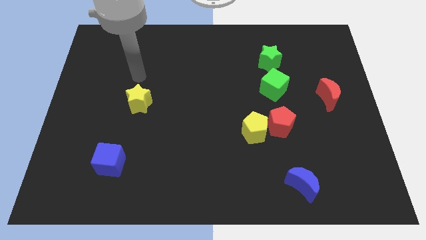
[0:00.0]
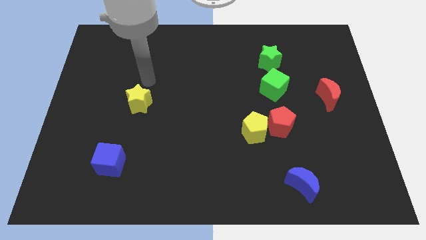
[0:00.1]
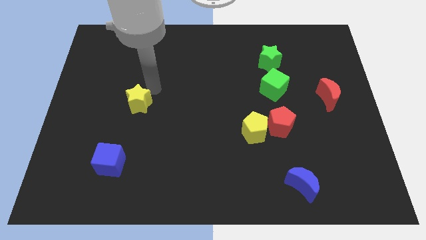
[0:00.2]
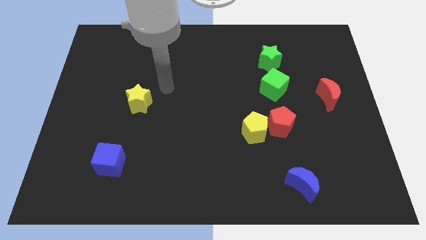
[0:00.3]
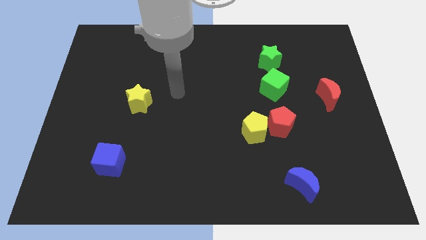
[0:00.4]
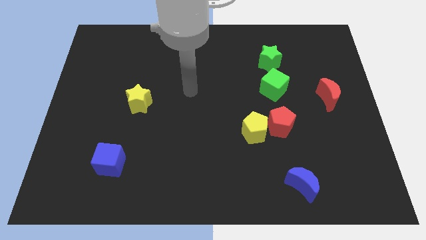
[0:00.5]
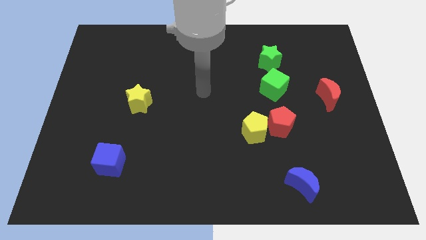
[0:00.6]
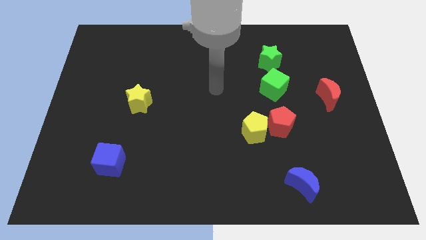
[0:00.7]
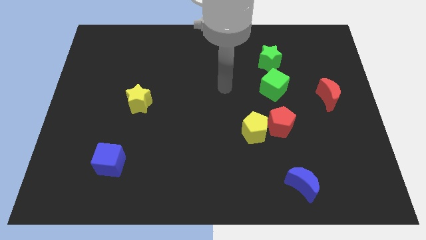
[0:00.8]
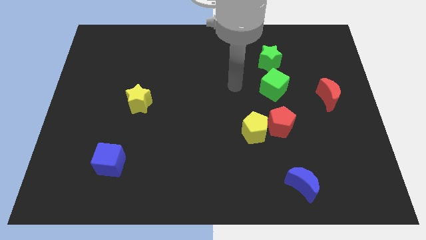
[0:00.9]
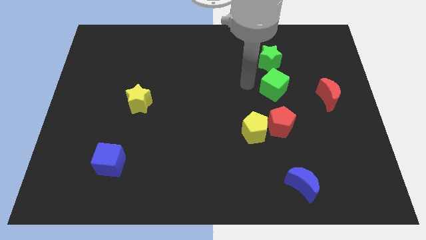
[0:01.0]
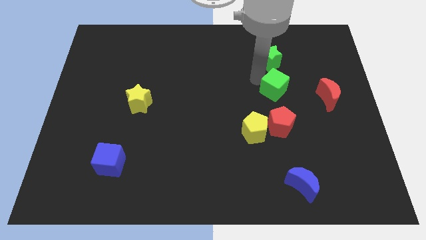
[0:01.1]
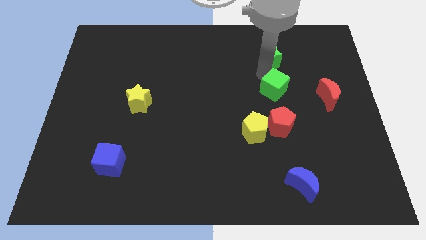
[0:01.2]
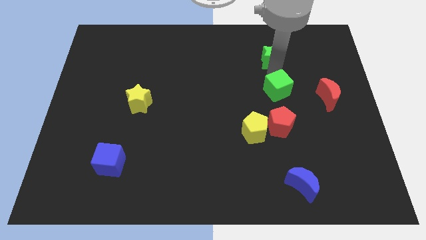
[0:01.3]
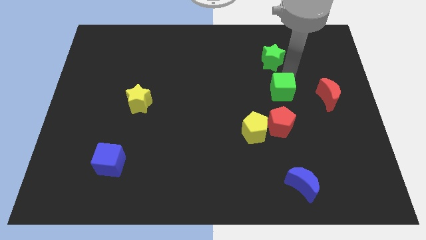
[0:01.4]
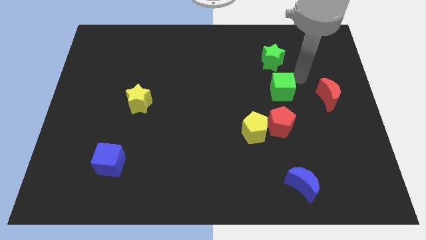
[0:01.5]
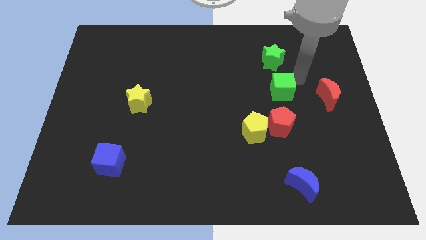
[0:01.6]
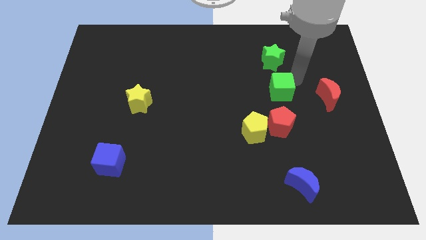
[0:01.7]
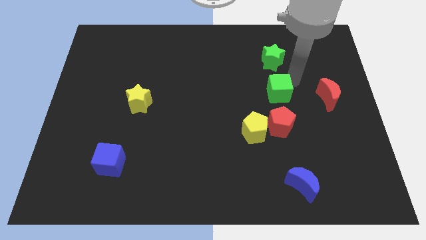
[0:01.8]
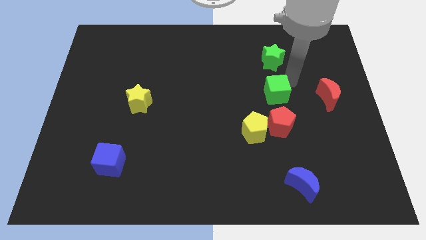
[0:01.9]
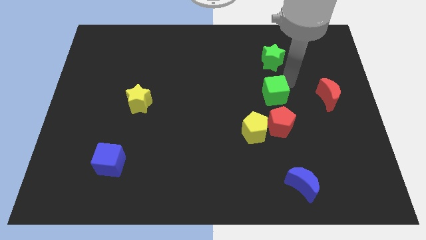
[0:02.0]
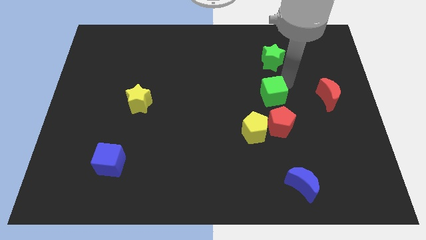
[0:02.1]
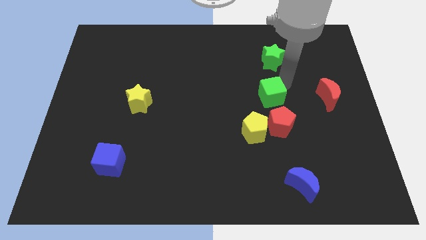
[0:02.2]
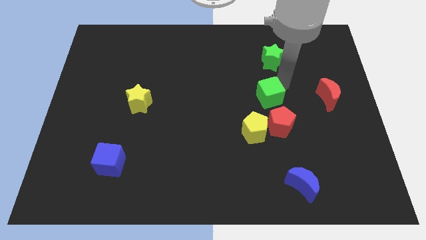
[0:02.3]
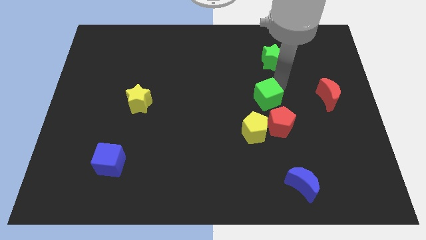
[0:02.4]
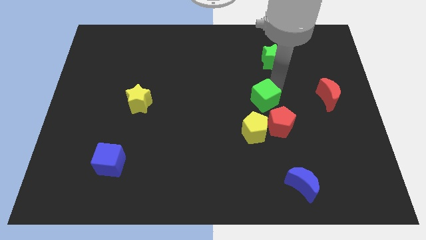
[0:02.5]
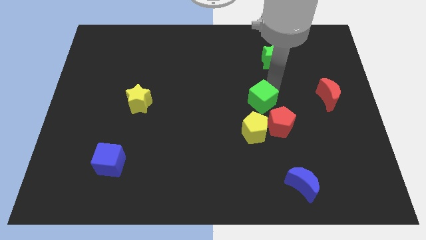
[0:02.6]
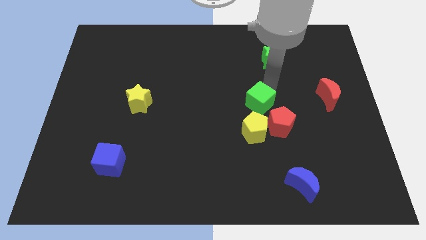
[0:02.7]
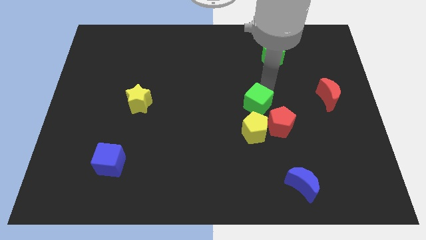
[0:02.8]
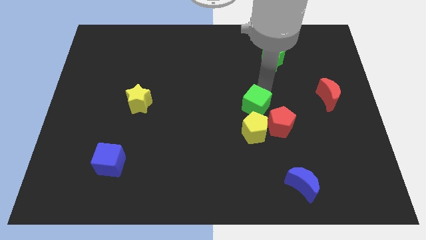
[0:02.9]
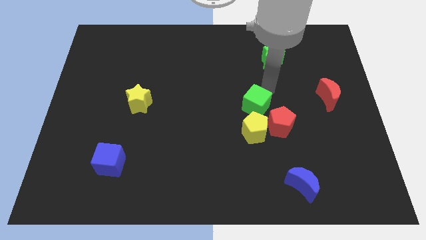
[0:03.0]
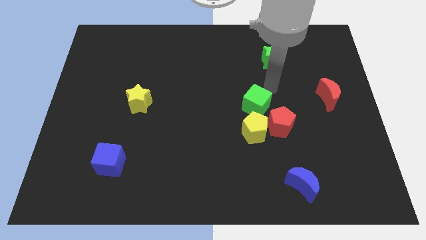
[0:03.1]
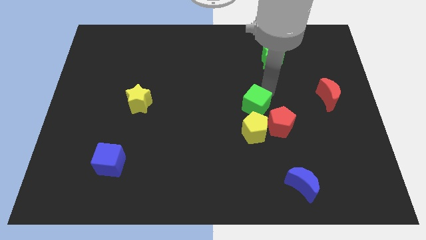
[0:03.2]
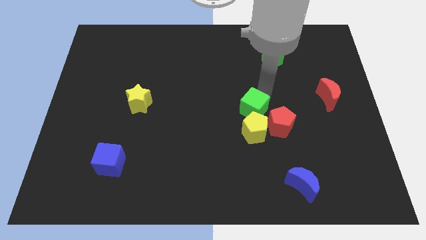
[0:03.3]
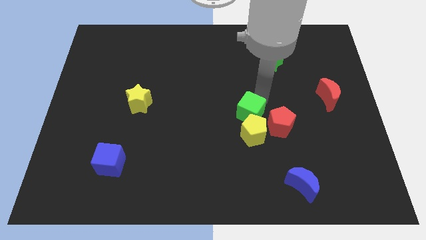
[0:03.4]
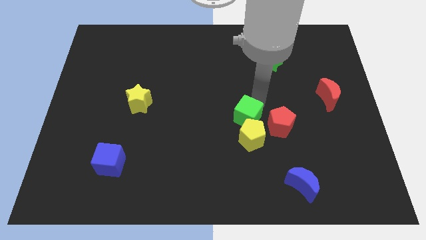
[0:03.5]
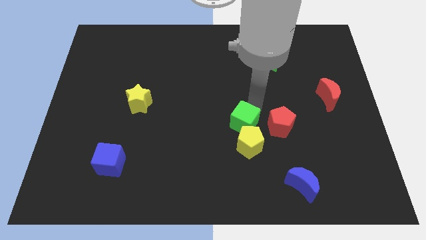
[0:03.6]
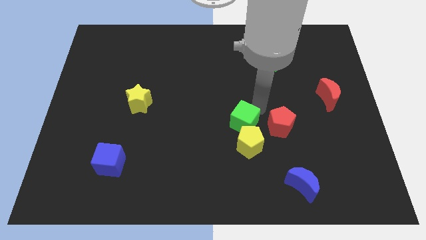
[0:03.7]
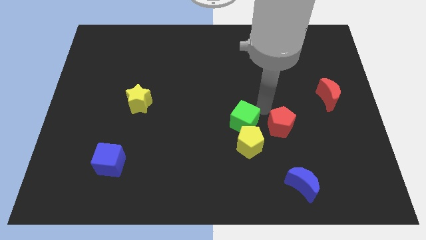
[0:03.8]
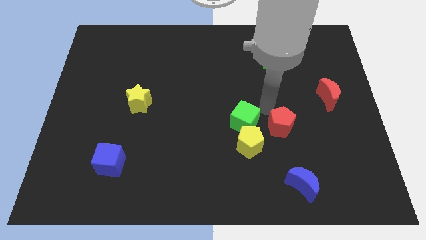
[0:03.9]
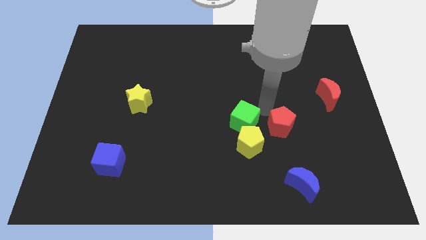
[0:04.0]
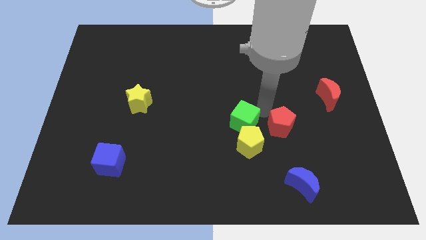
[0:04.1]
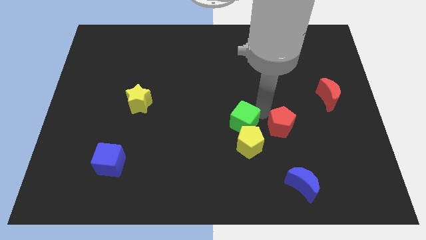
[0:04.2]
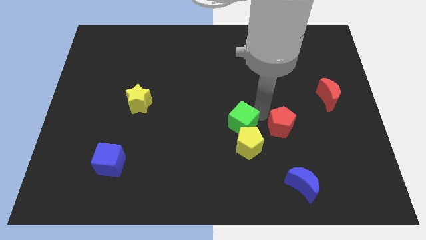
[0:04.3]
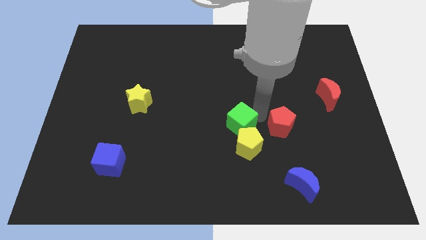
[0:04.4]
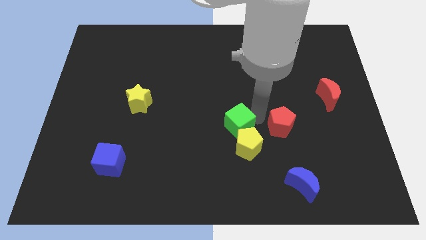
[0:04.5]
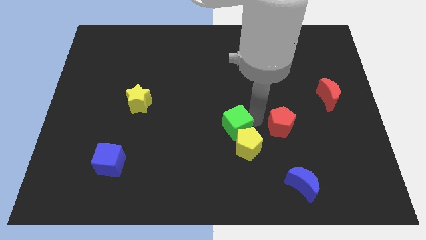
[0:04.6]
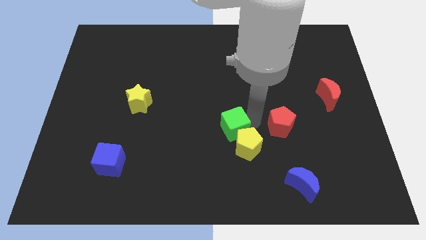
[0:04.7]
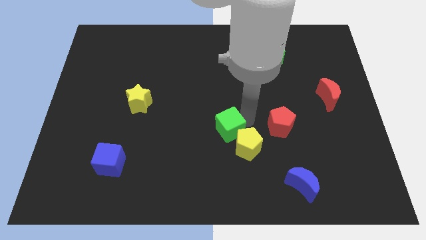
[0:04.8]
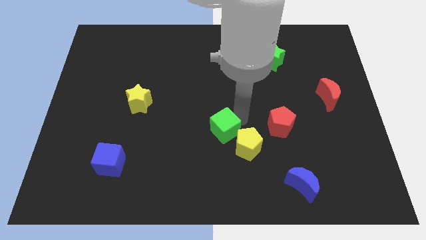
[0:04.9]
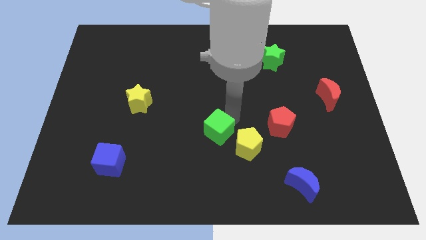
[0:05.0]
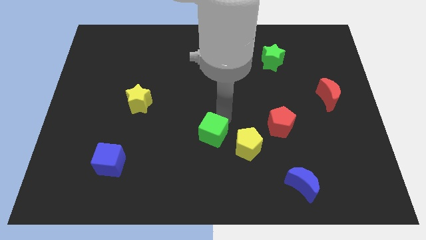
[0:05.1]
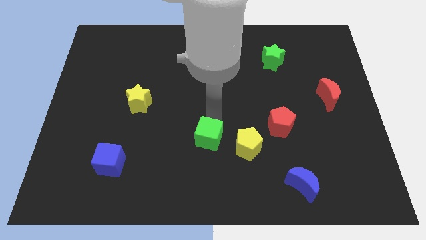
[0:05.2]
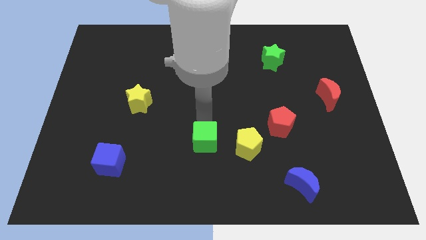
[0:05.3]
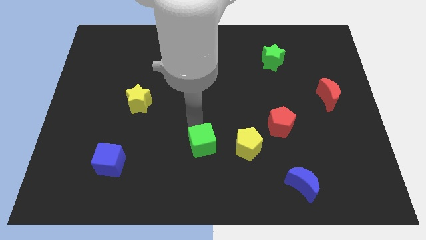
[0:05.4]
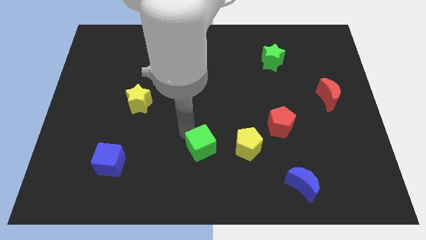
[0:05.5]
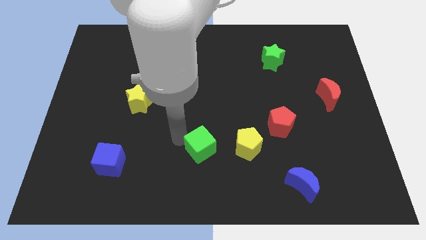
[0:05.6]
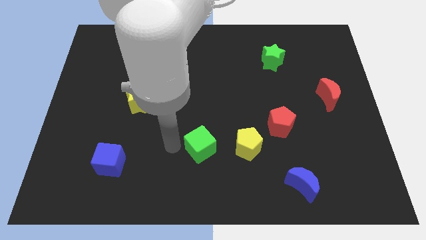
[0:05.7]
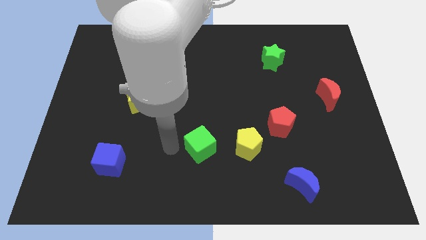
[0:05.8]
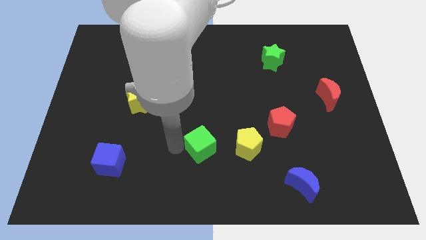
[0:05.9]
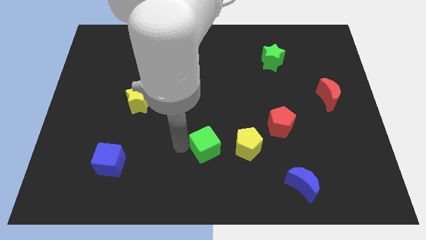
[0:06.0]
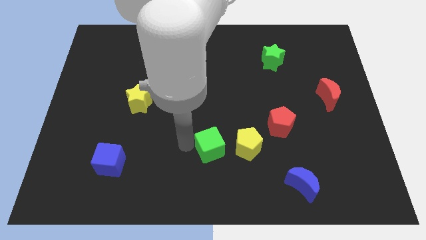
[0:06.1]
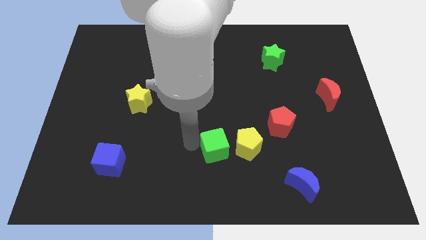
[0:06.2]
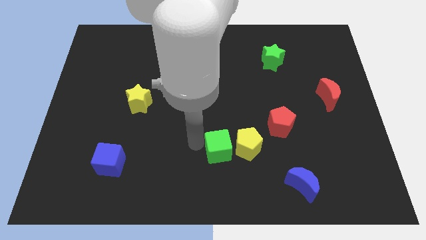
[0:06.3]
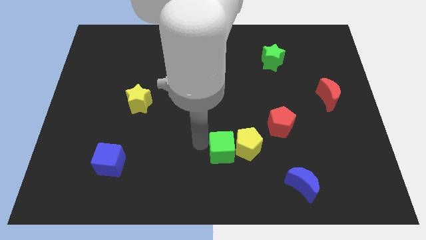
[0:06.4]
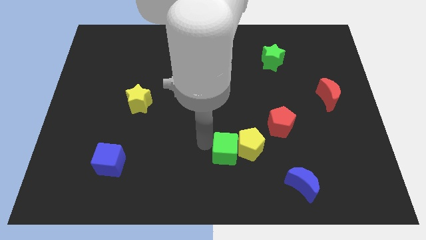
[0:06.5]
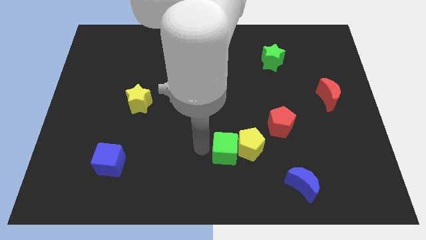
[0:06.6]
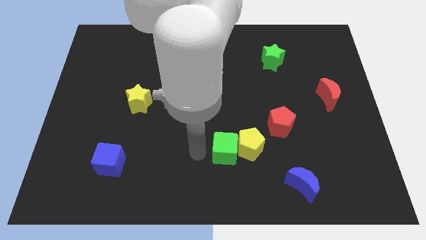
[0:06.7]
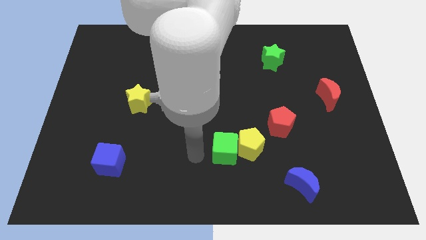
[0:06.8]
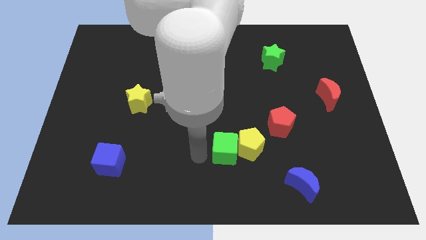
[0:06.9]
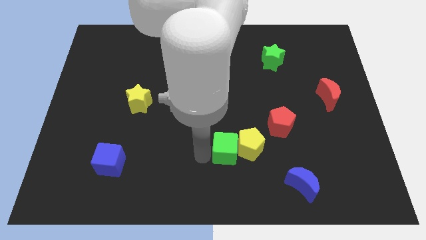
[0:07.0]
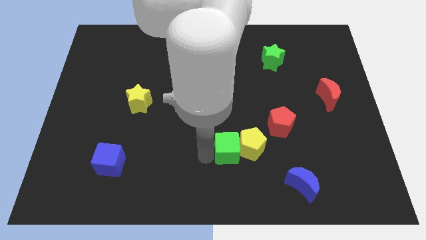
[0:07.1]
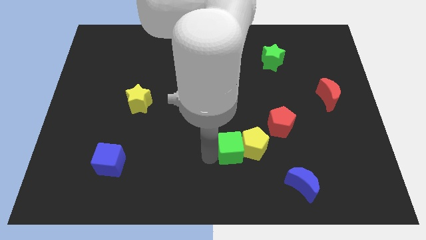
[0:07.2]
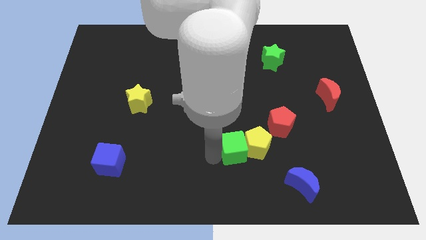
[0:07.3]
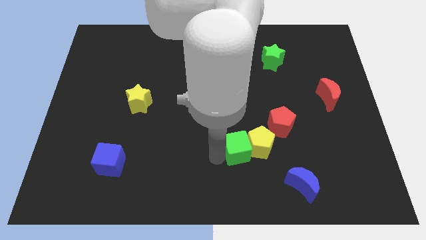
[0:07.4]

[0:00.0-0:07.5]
move the green cube to the bottom left of the red pentagon
